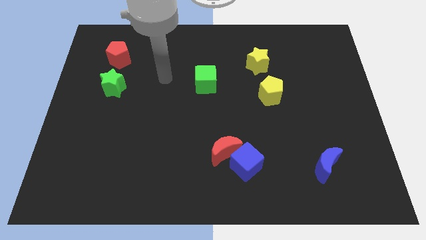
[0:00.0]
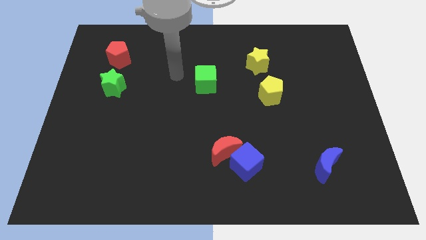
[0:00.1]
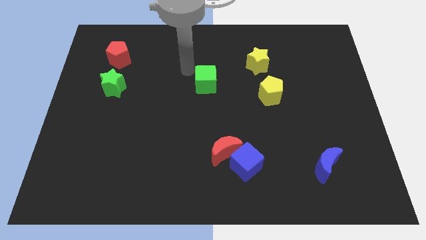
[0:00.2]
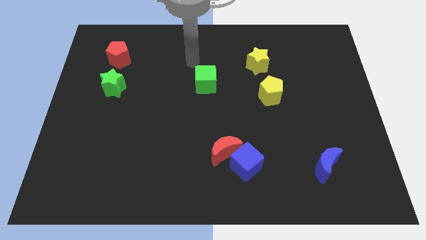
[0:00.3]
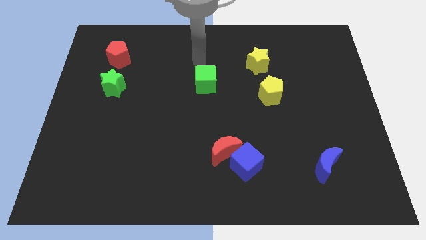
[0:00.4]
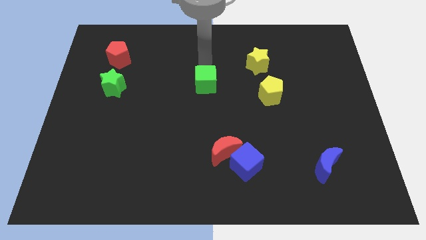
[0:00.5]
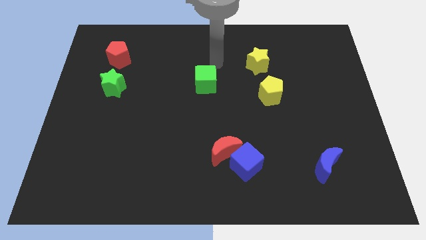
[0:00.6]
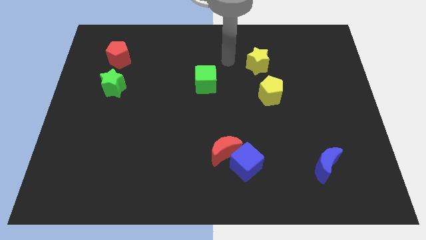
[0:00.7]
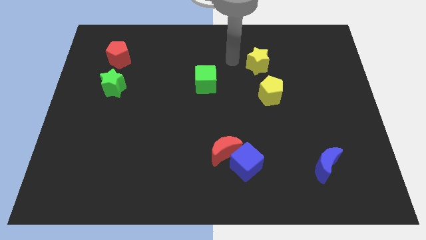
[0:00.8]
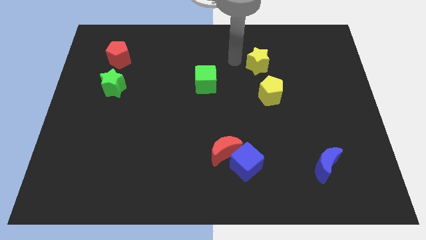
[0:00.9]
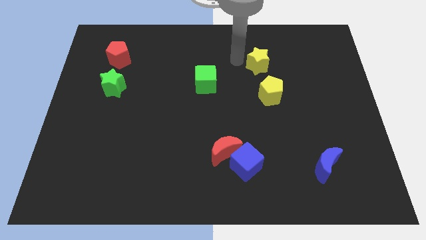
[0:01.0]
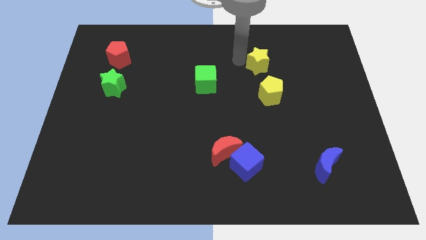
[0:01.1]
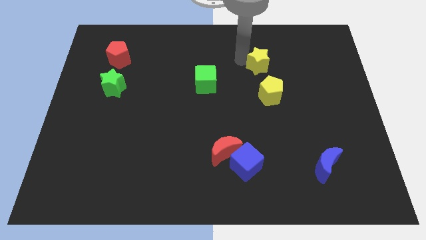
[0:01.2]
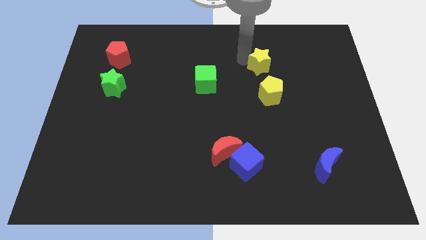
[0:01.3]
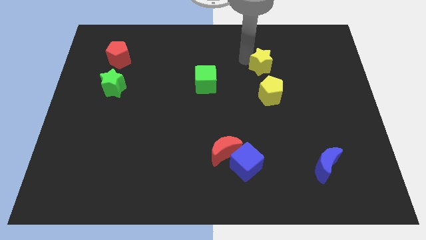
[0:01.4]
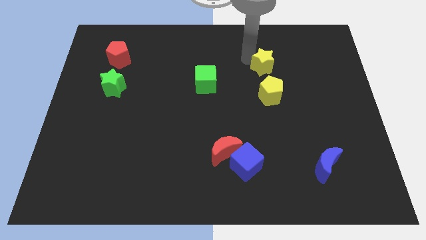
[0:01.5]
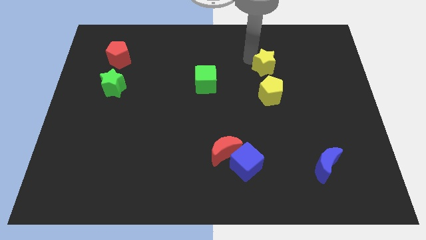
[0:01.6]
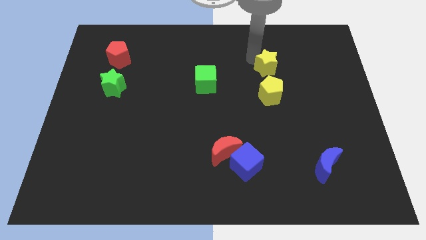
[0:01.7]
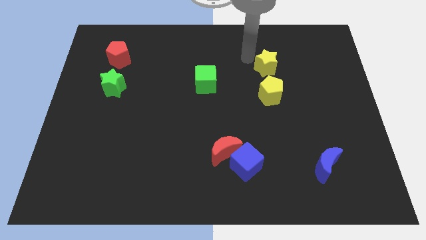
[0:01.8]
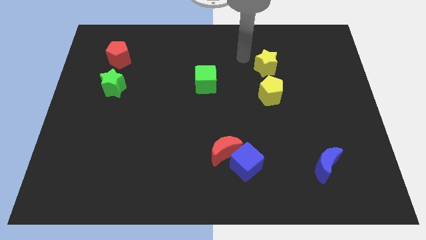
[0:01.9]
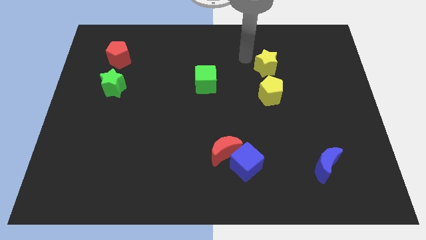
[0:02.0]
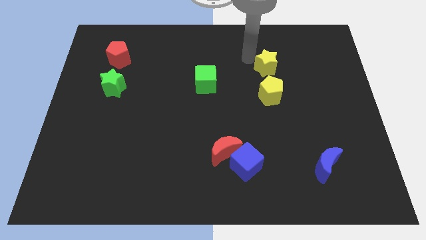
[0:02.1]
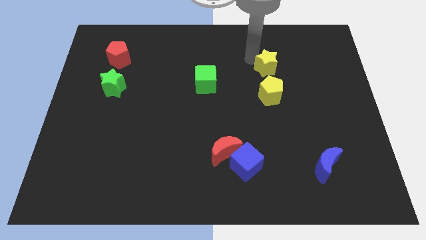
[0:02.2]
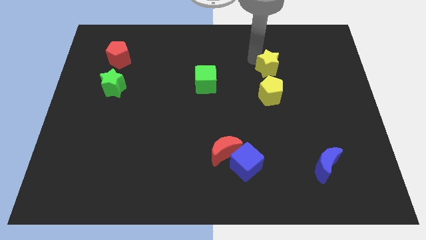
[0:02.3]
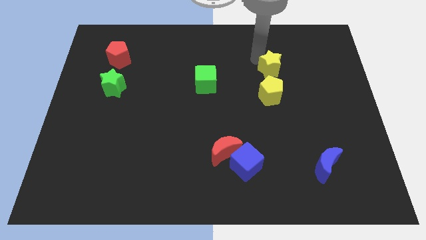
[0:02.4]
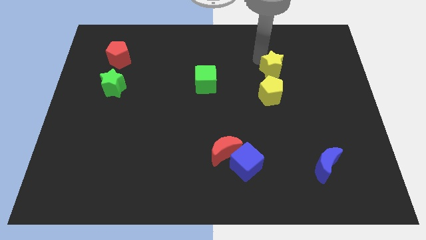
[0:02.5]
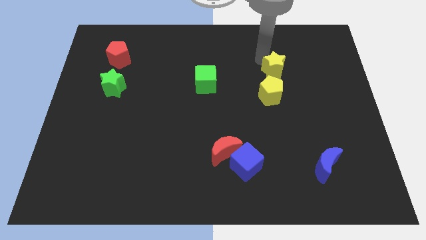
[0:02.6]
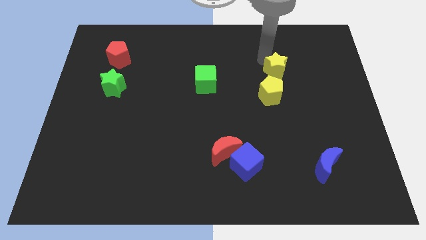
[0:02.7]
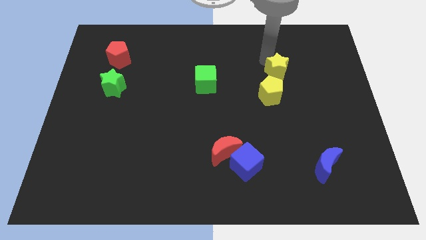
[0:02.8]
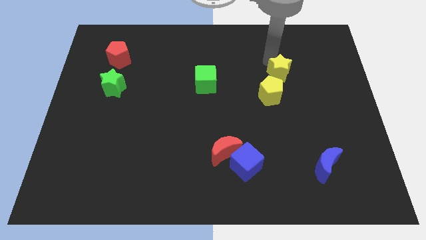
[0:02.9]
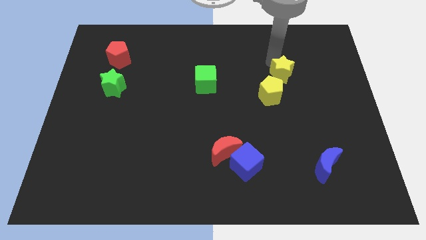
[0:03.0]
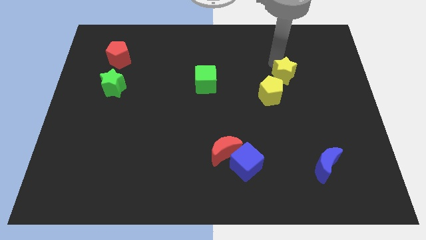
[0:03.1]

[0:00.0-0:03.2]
slightly slide the yellow star downwards and right diagonally

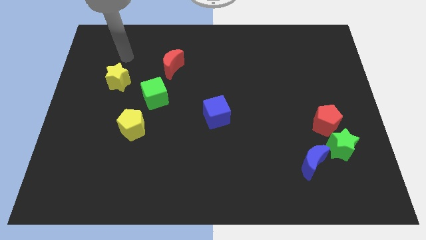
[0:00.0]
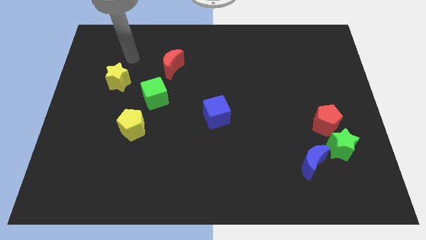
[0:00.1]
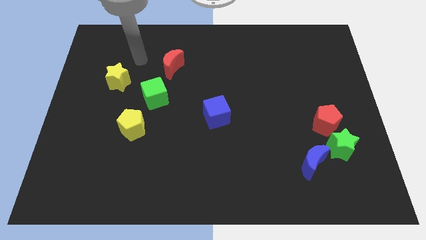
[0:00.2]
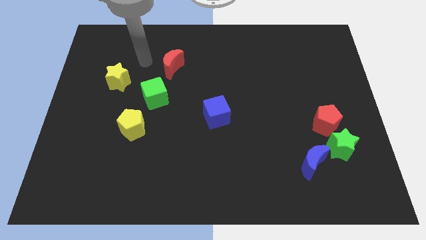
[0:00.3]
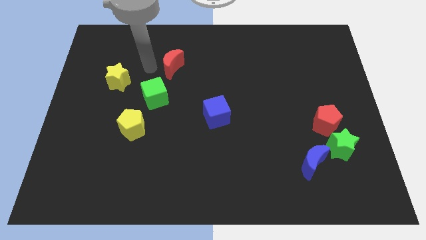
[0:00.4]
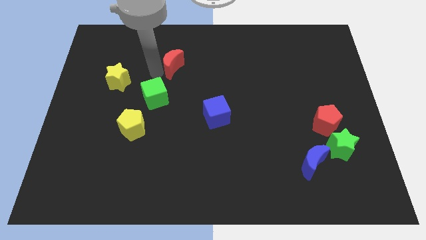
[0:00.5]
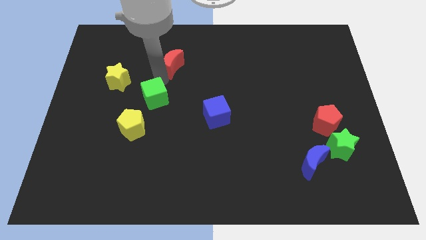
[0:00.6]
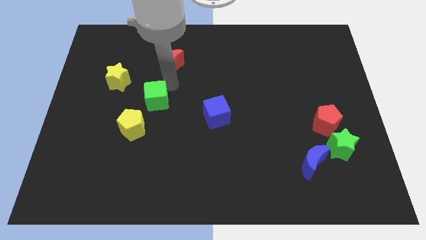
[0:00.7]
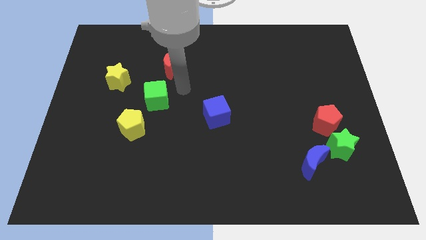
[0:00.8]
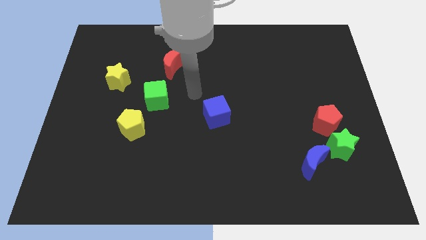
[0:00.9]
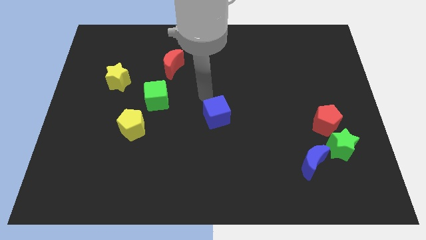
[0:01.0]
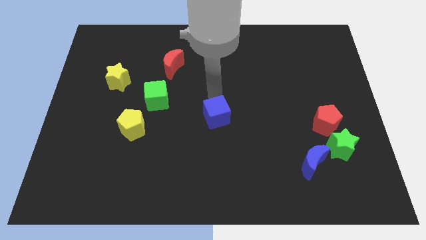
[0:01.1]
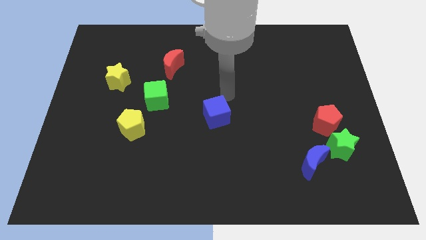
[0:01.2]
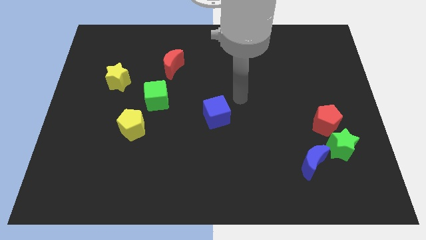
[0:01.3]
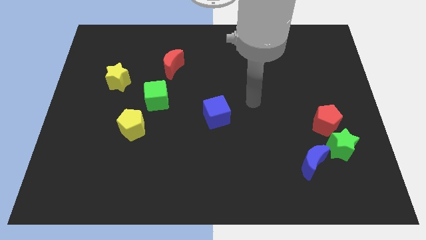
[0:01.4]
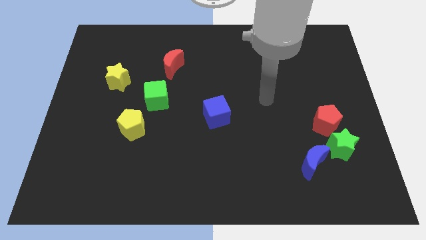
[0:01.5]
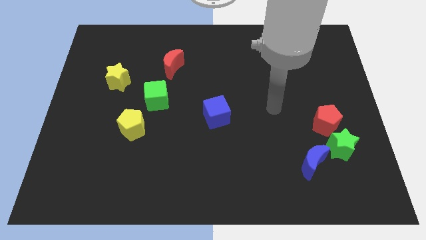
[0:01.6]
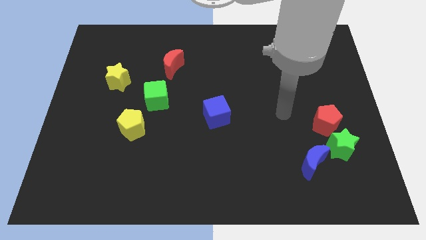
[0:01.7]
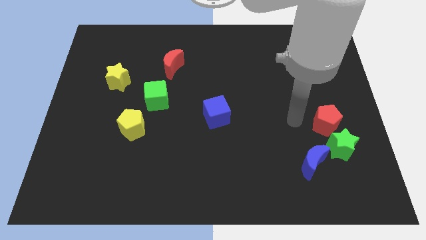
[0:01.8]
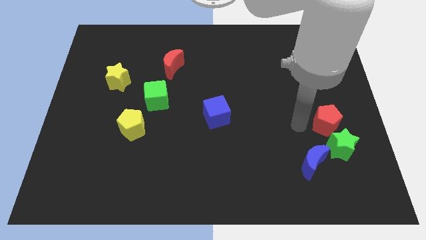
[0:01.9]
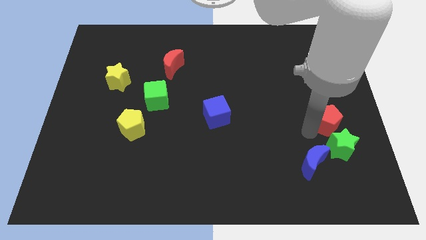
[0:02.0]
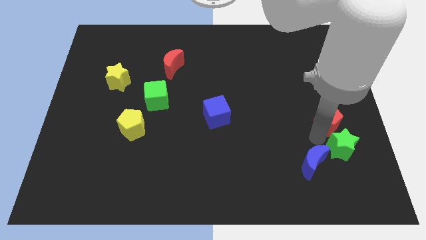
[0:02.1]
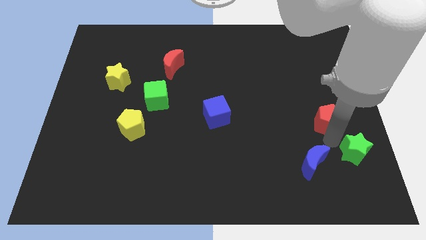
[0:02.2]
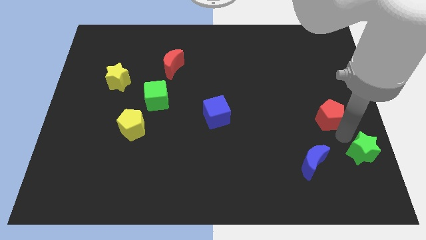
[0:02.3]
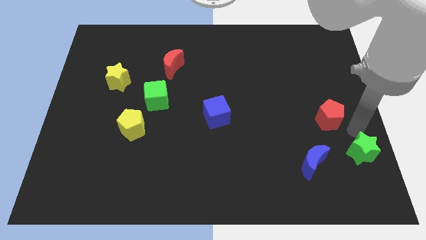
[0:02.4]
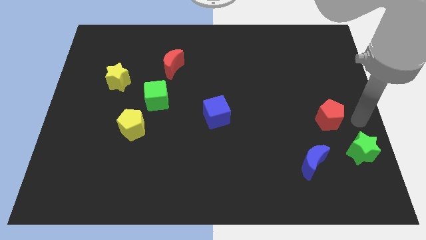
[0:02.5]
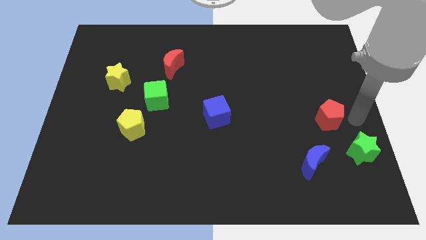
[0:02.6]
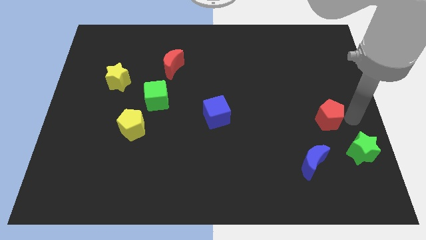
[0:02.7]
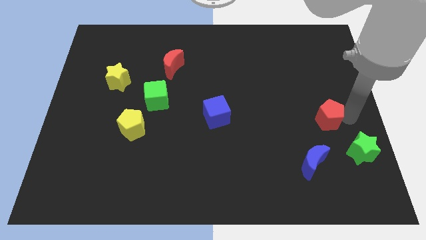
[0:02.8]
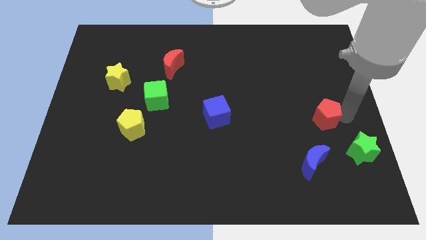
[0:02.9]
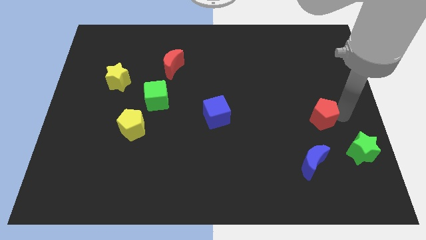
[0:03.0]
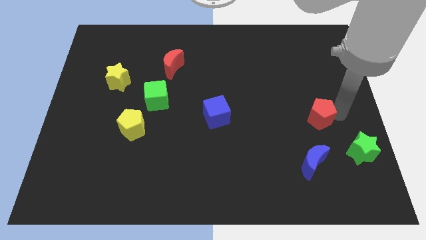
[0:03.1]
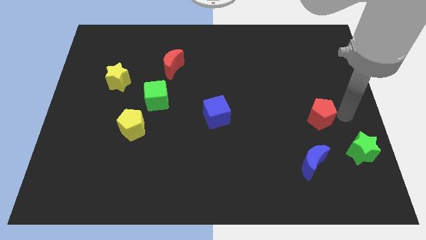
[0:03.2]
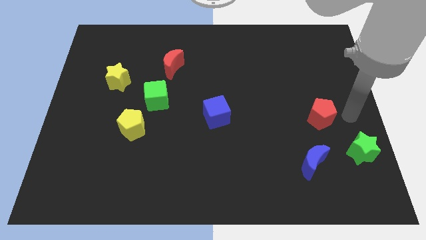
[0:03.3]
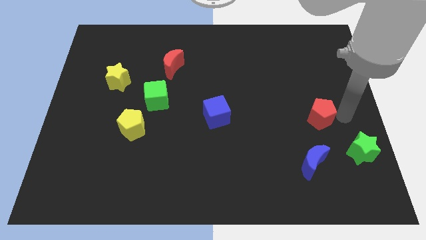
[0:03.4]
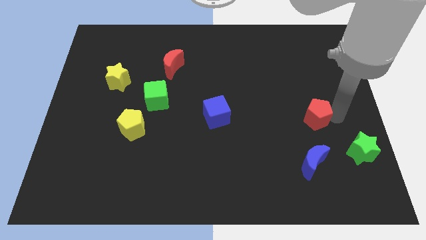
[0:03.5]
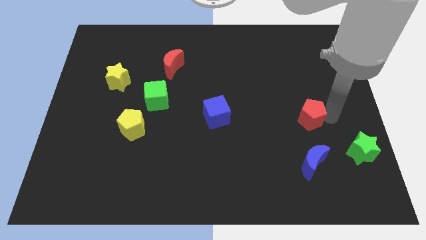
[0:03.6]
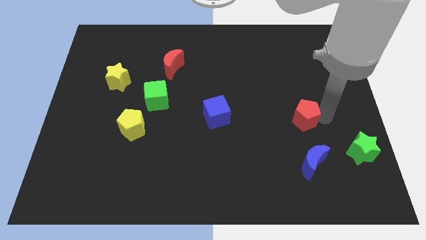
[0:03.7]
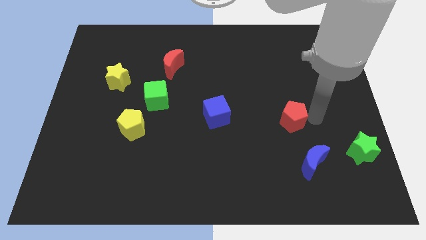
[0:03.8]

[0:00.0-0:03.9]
push the red pentagon left somewhat

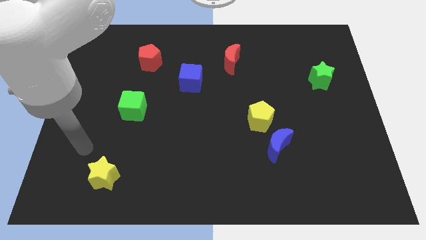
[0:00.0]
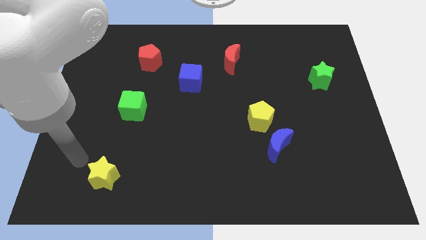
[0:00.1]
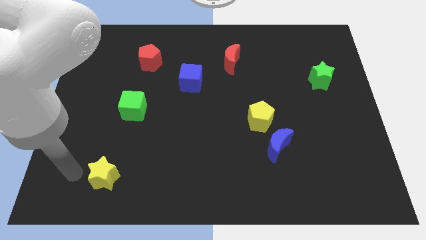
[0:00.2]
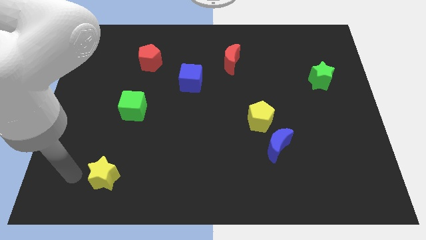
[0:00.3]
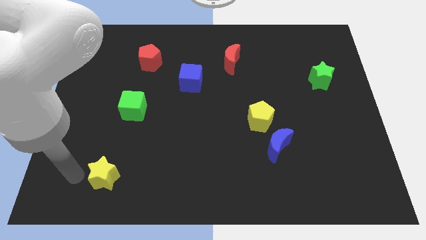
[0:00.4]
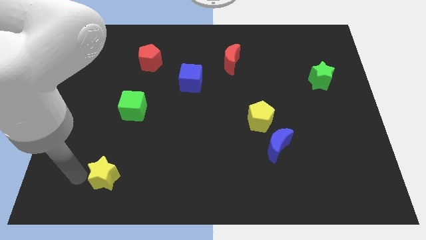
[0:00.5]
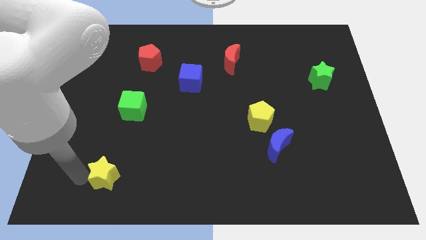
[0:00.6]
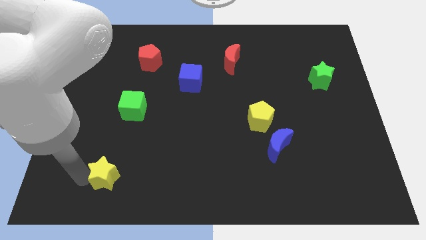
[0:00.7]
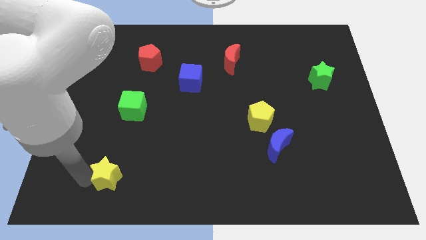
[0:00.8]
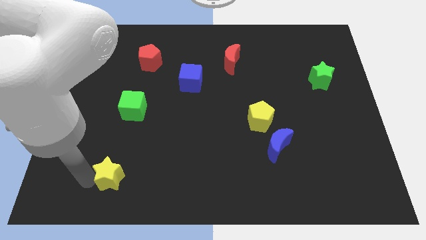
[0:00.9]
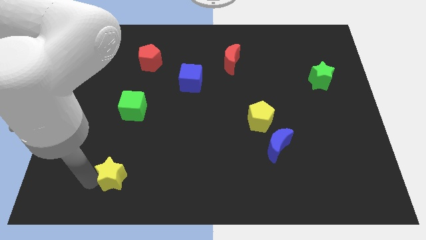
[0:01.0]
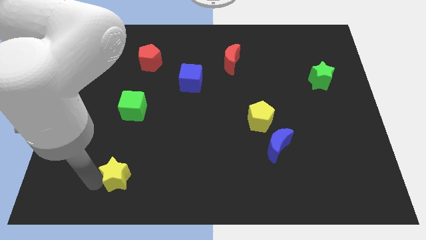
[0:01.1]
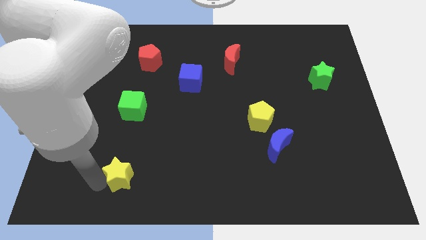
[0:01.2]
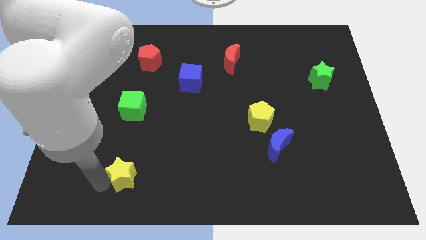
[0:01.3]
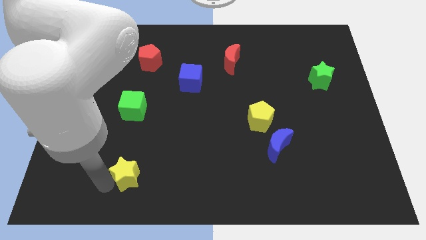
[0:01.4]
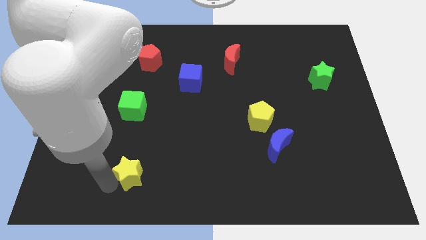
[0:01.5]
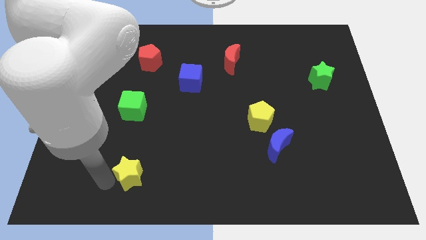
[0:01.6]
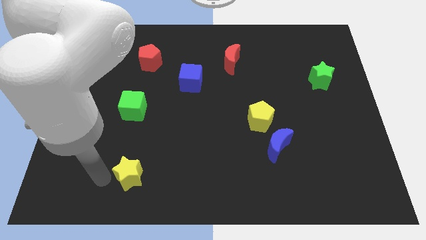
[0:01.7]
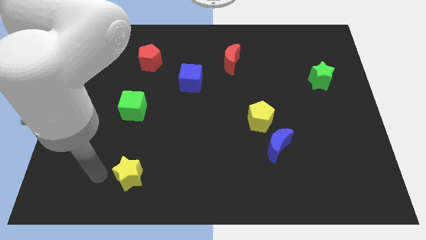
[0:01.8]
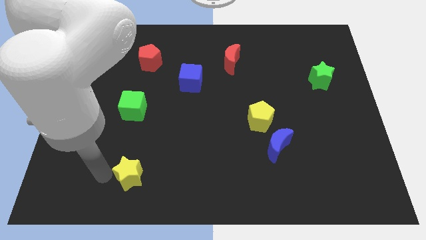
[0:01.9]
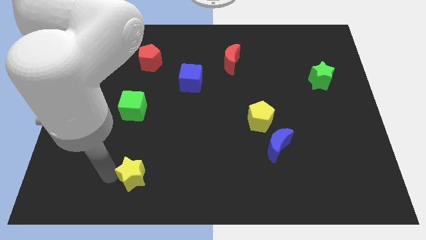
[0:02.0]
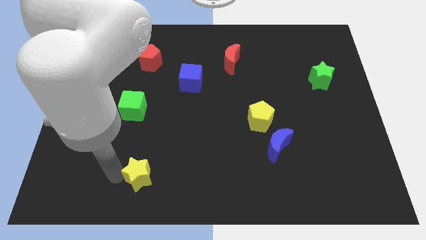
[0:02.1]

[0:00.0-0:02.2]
slightly push the yellow star to the right
